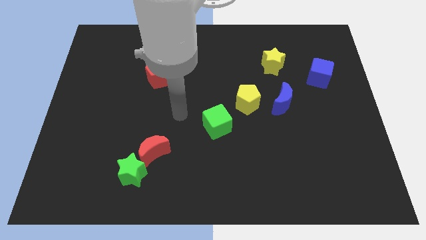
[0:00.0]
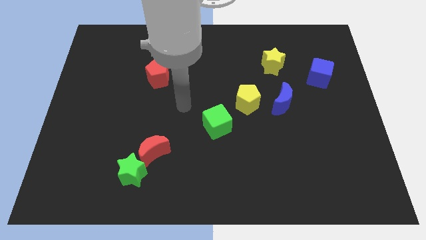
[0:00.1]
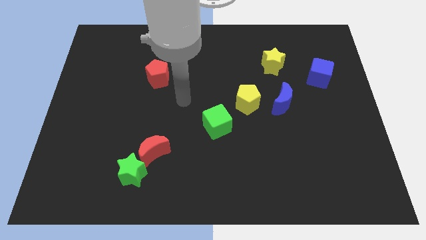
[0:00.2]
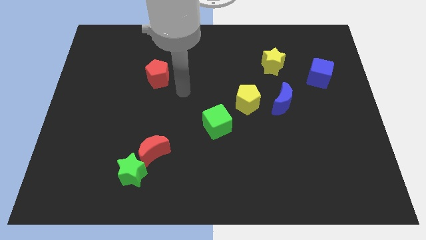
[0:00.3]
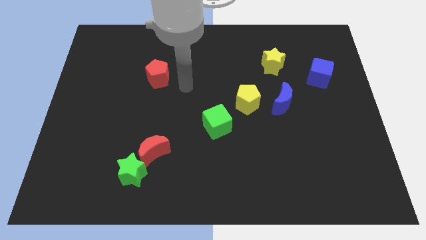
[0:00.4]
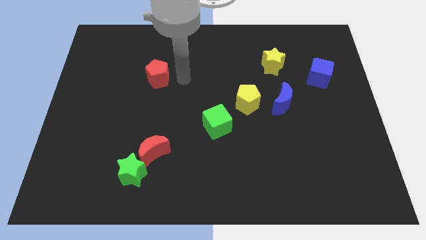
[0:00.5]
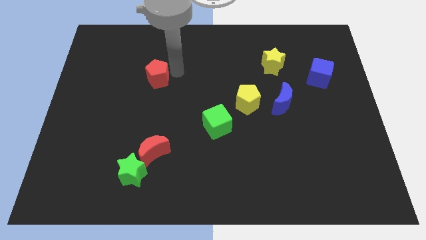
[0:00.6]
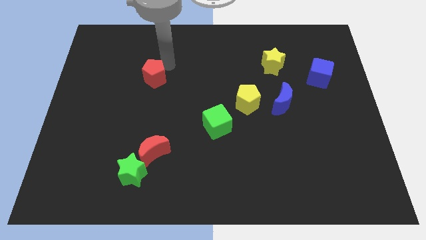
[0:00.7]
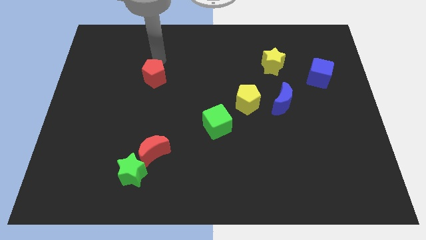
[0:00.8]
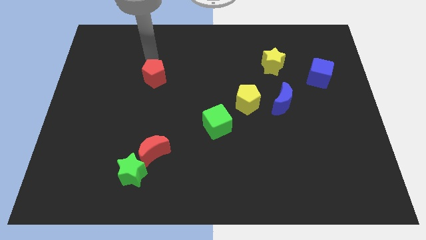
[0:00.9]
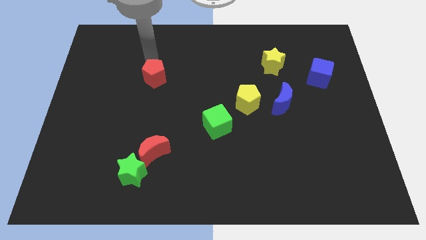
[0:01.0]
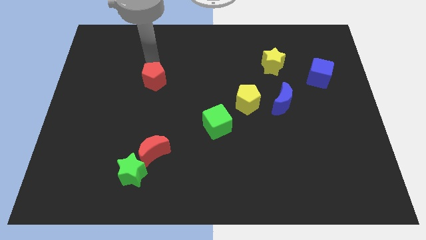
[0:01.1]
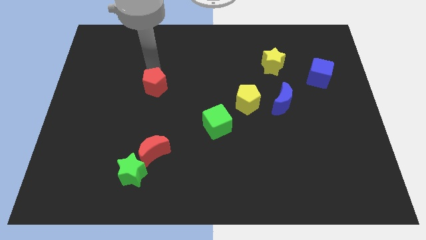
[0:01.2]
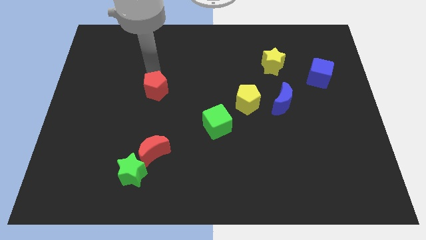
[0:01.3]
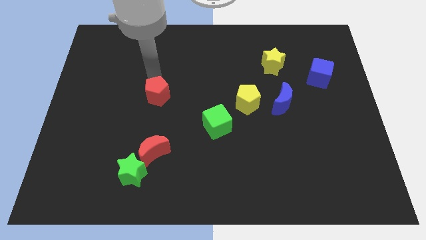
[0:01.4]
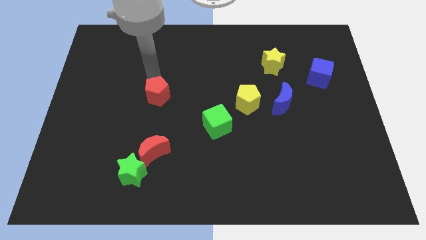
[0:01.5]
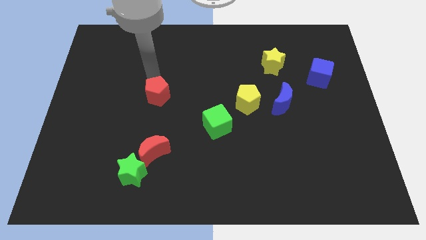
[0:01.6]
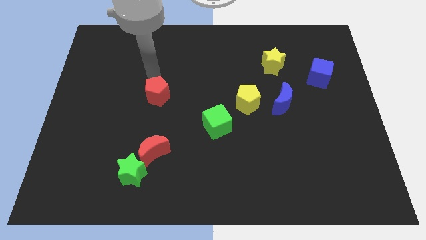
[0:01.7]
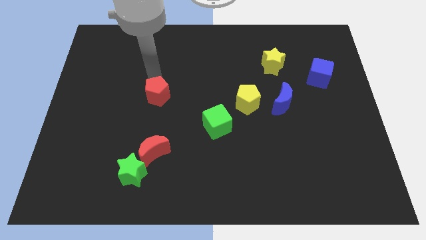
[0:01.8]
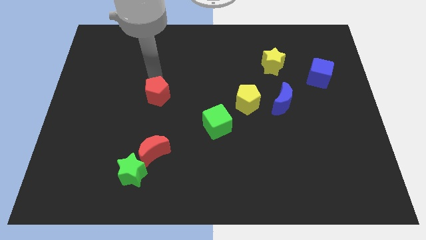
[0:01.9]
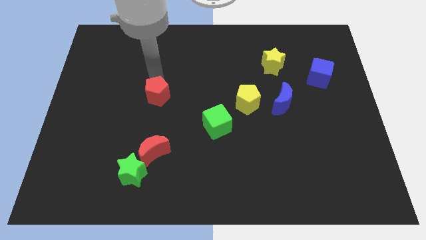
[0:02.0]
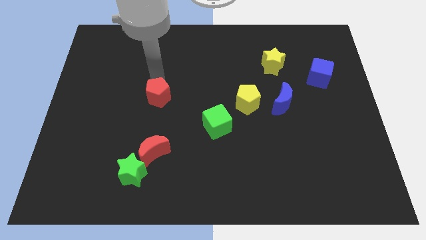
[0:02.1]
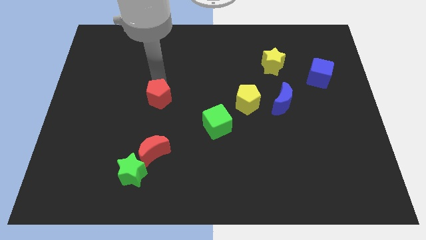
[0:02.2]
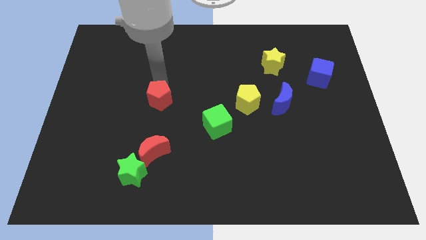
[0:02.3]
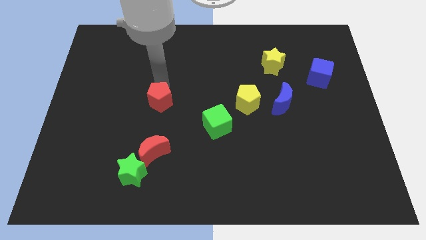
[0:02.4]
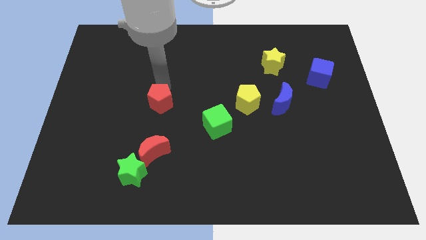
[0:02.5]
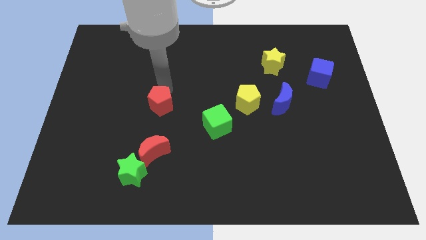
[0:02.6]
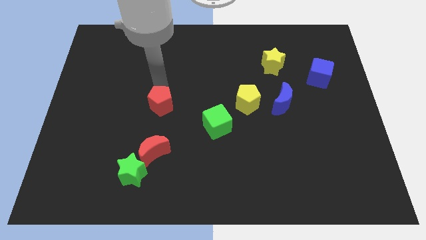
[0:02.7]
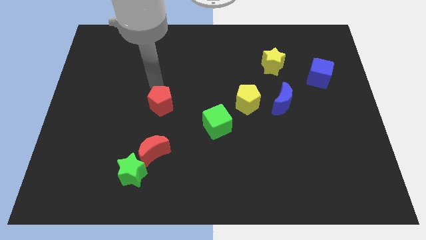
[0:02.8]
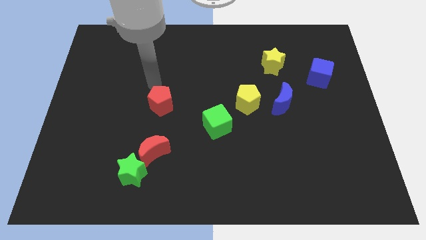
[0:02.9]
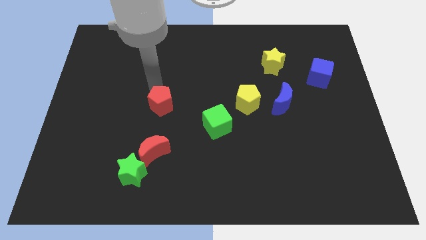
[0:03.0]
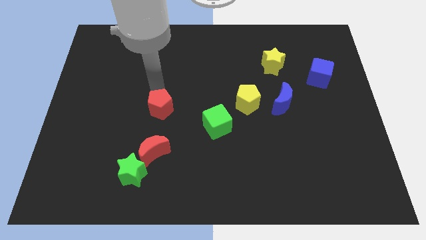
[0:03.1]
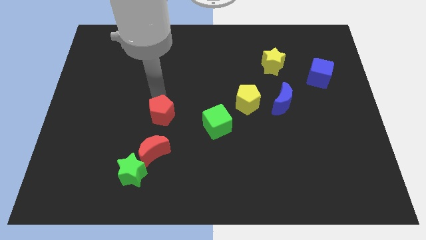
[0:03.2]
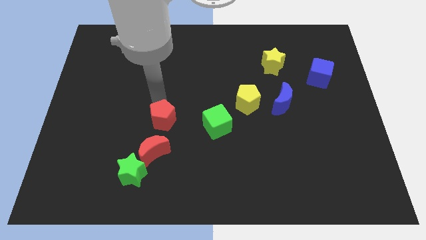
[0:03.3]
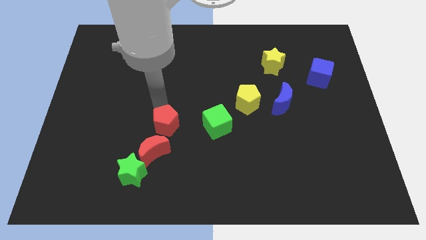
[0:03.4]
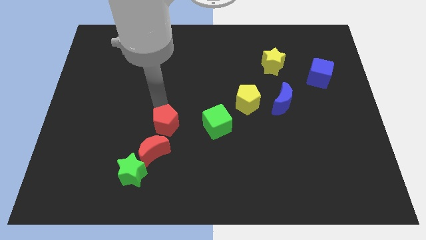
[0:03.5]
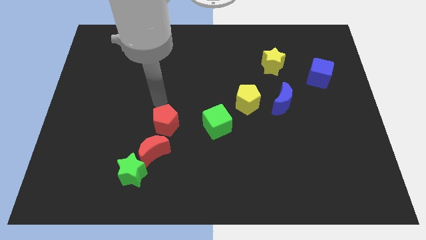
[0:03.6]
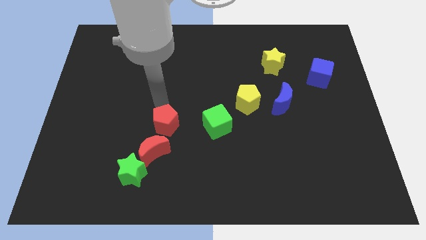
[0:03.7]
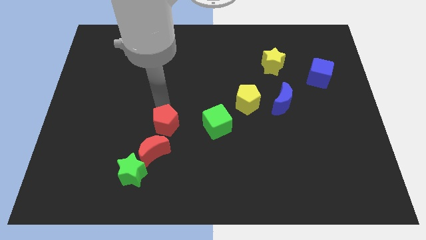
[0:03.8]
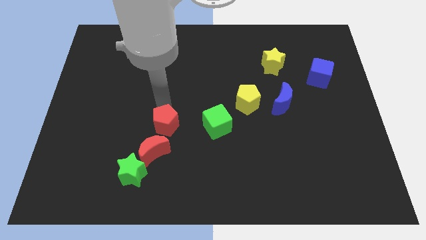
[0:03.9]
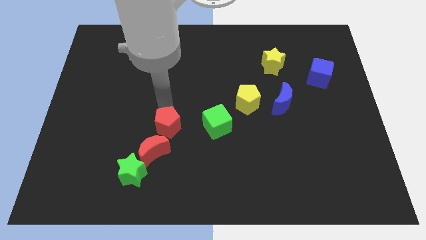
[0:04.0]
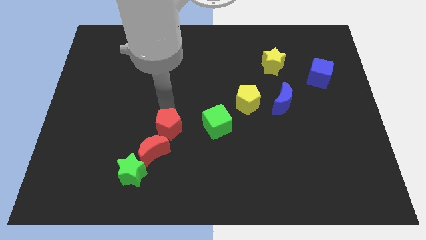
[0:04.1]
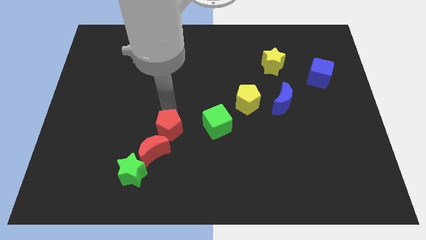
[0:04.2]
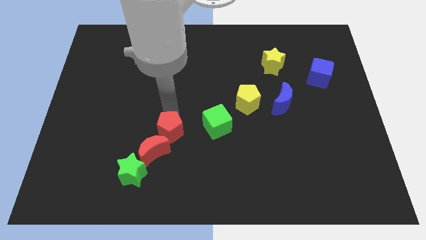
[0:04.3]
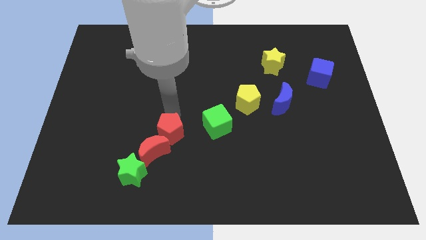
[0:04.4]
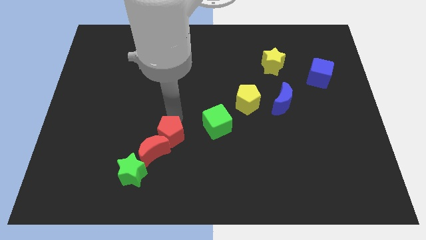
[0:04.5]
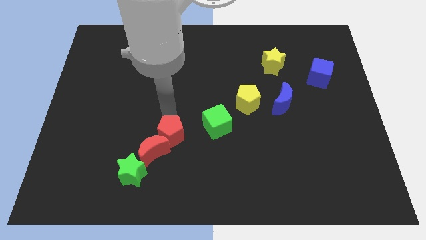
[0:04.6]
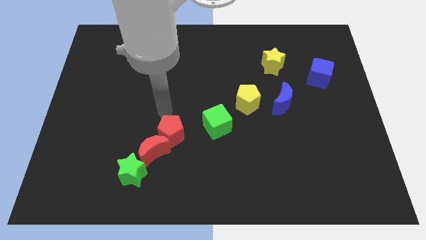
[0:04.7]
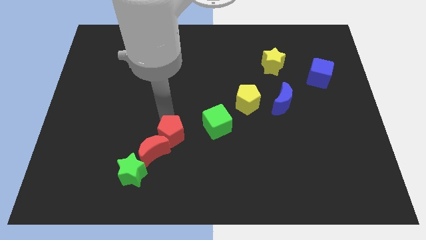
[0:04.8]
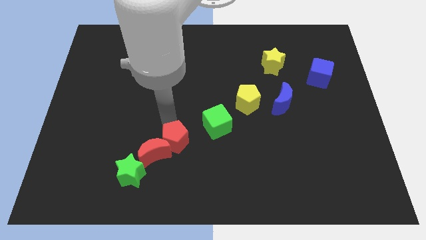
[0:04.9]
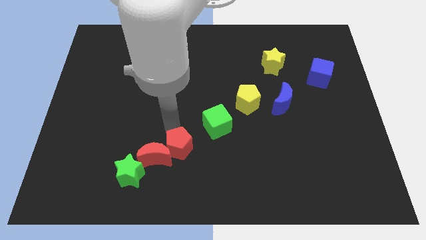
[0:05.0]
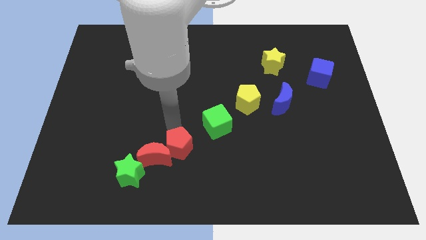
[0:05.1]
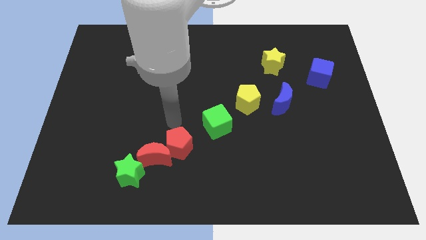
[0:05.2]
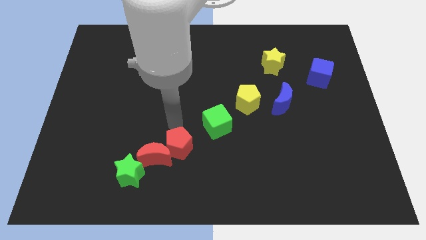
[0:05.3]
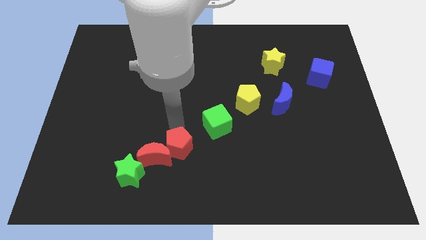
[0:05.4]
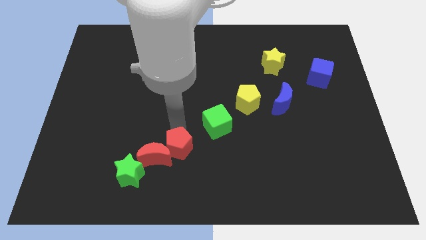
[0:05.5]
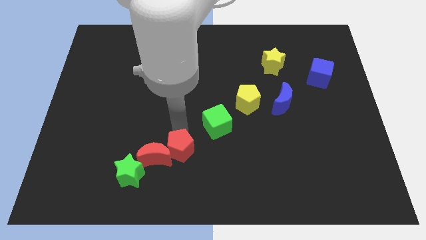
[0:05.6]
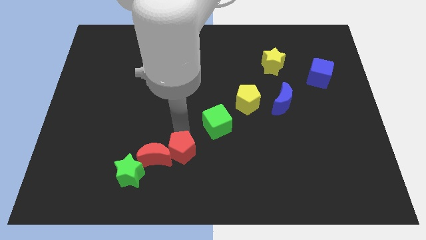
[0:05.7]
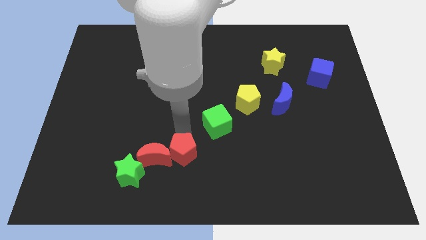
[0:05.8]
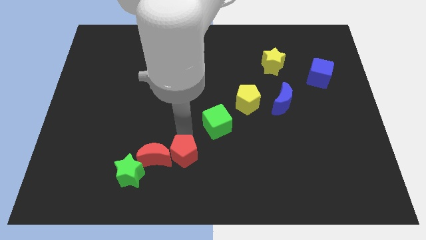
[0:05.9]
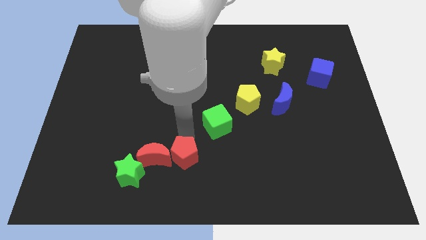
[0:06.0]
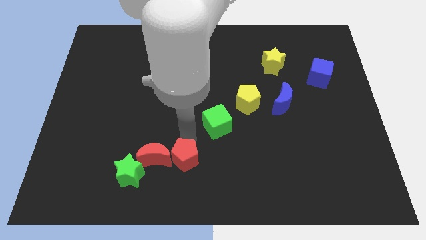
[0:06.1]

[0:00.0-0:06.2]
move the red pentagon to the bottom
